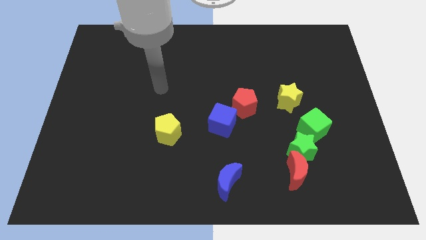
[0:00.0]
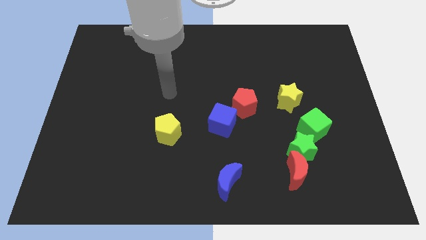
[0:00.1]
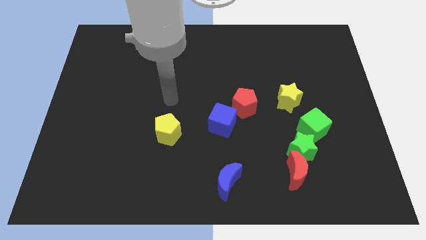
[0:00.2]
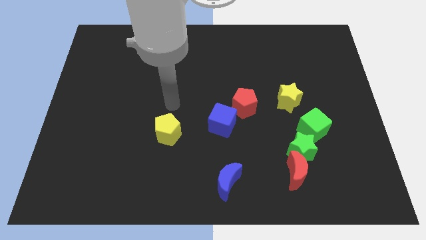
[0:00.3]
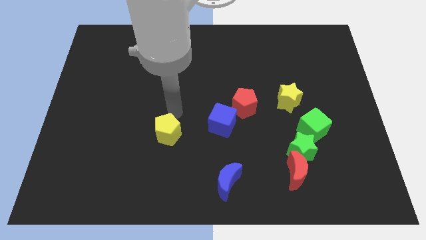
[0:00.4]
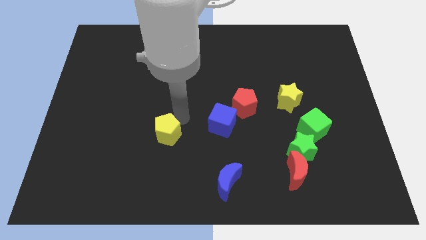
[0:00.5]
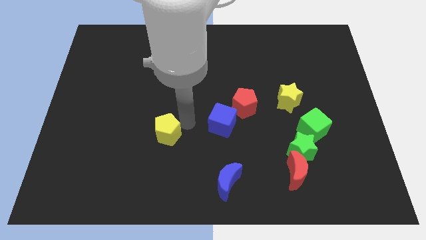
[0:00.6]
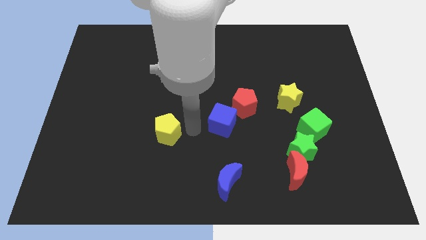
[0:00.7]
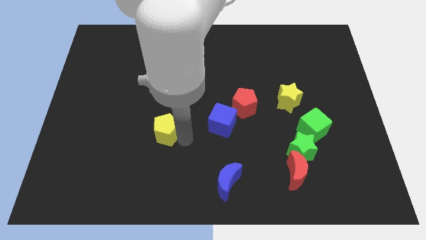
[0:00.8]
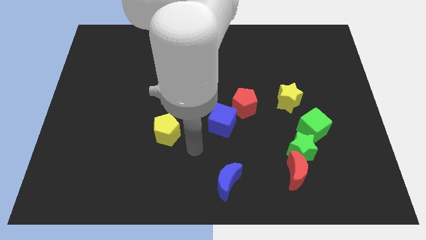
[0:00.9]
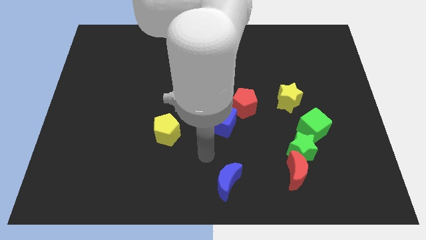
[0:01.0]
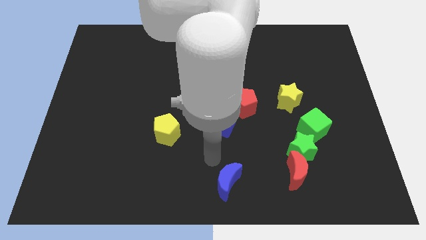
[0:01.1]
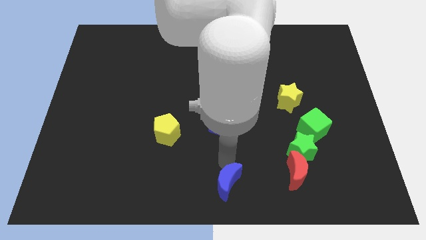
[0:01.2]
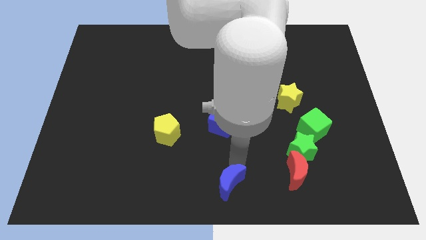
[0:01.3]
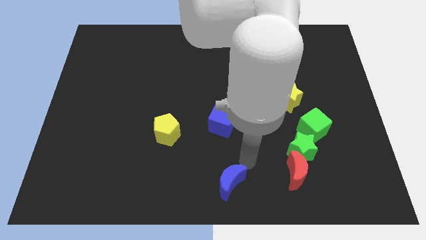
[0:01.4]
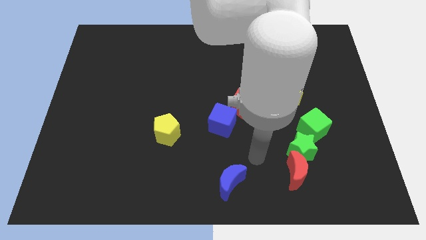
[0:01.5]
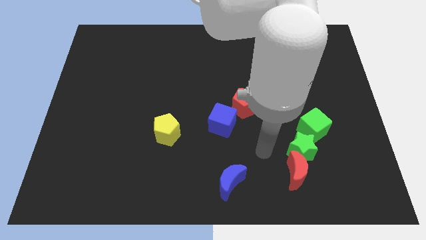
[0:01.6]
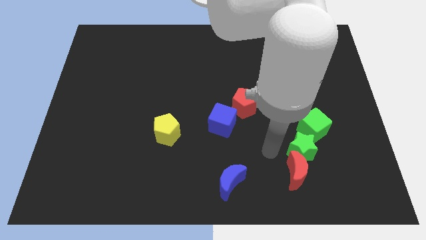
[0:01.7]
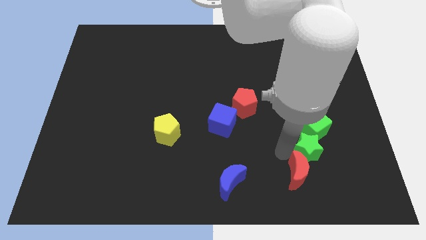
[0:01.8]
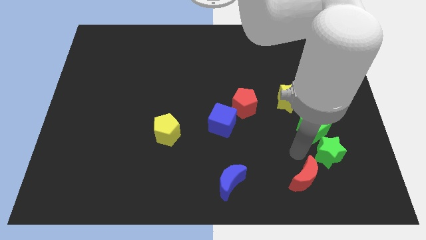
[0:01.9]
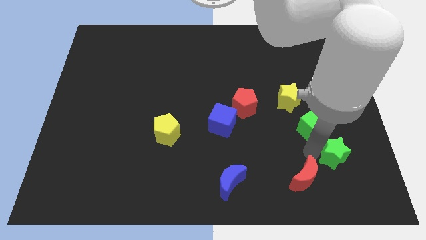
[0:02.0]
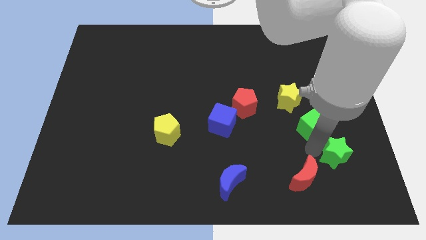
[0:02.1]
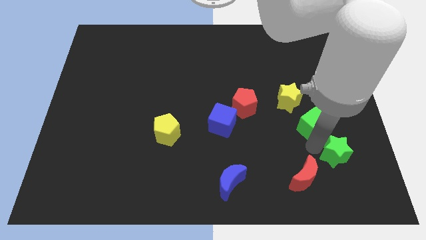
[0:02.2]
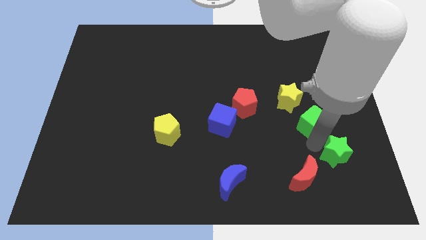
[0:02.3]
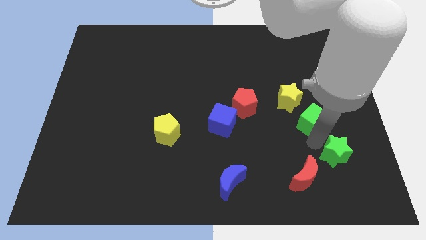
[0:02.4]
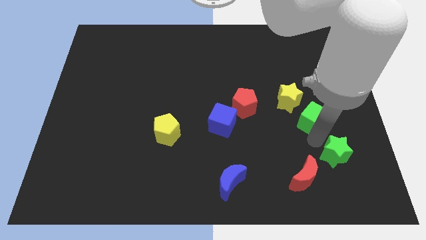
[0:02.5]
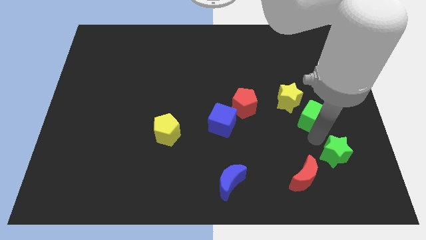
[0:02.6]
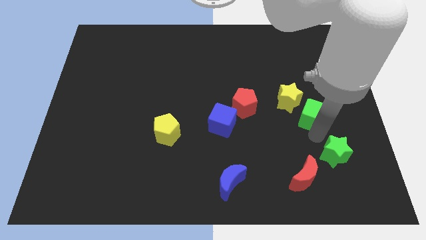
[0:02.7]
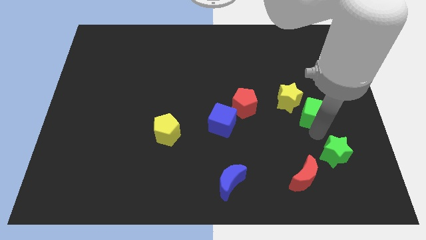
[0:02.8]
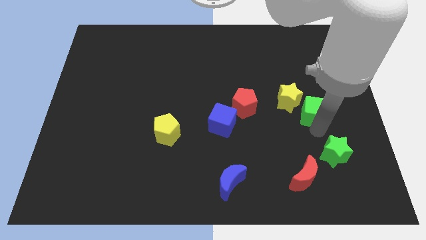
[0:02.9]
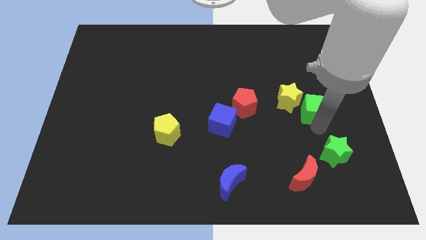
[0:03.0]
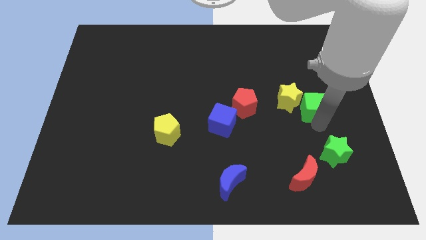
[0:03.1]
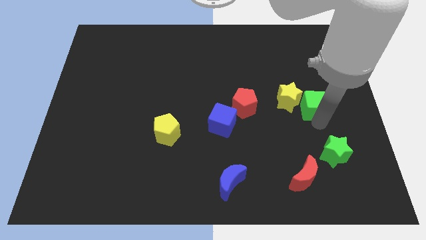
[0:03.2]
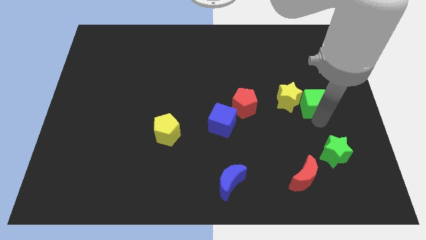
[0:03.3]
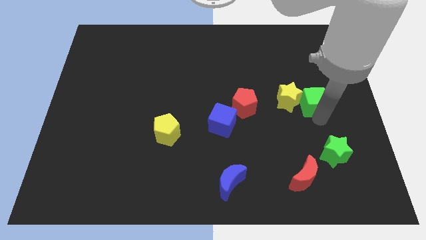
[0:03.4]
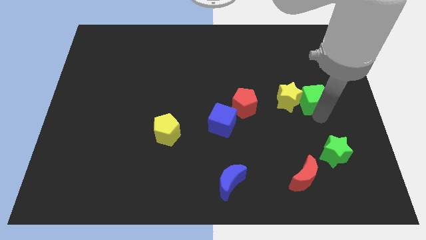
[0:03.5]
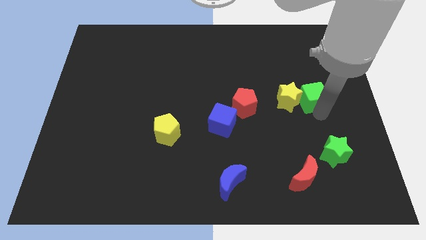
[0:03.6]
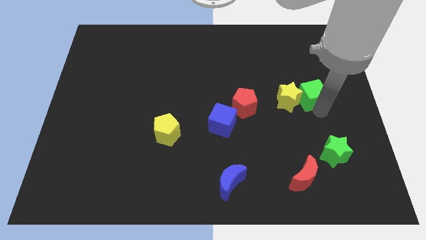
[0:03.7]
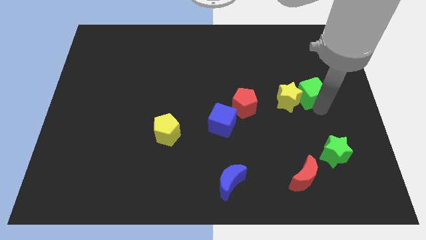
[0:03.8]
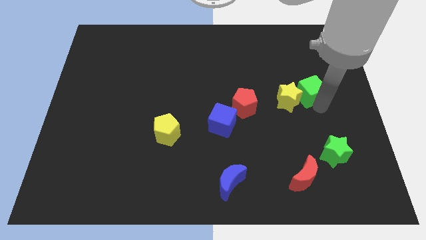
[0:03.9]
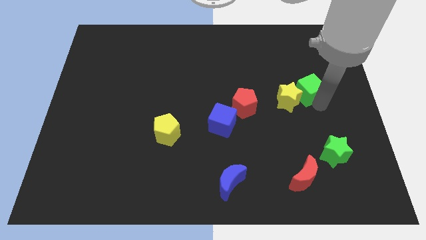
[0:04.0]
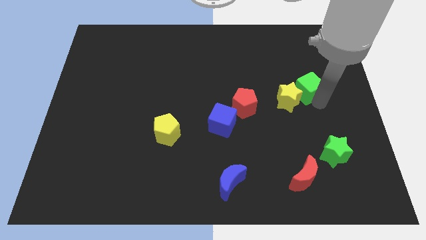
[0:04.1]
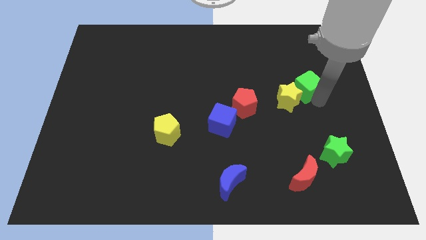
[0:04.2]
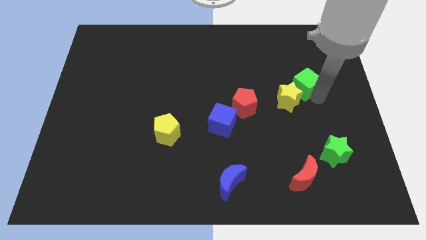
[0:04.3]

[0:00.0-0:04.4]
push the green cube to the top side of the yellow star

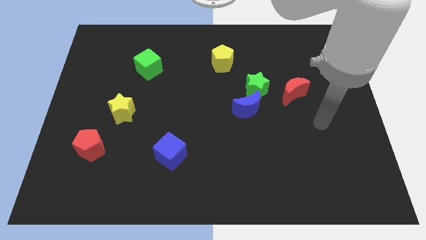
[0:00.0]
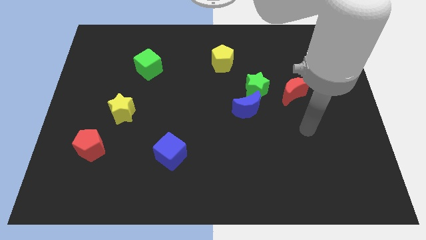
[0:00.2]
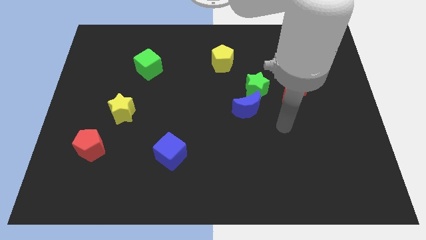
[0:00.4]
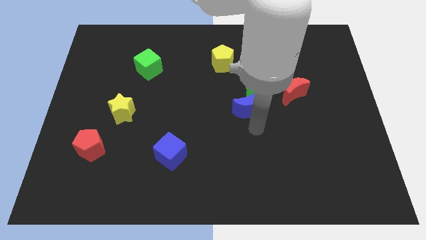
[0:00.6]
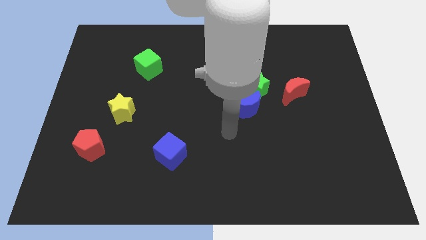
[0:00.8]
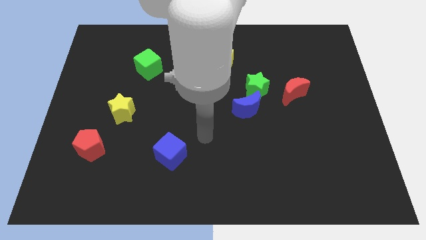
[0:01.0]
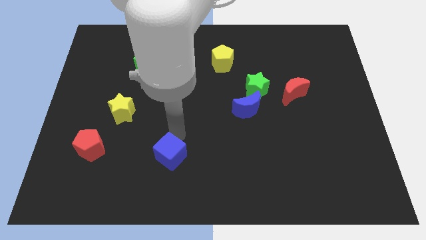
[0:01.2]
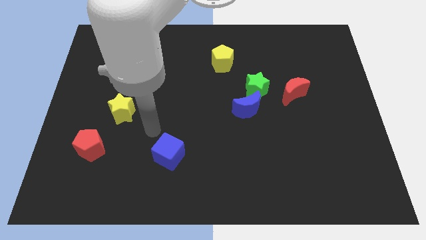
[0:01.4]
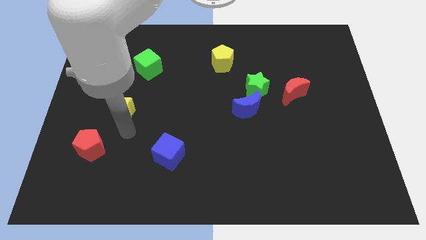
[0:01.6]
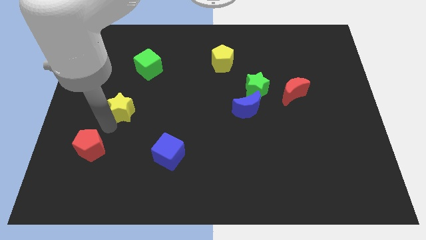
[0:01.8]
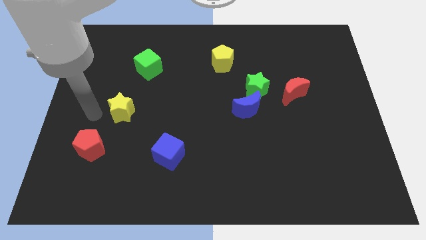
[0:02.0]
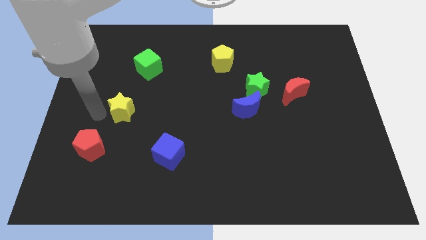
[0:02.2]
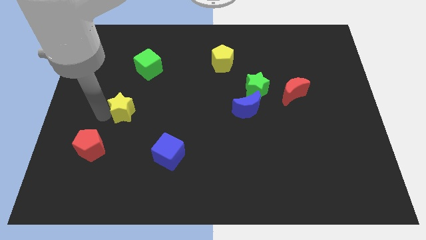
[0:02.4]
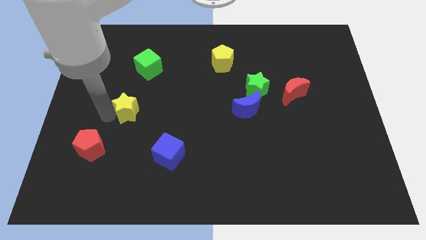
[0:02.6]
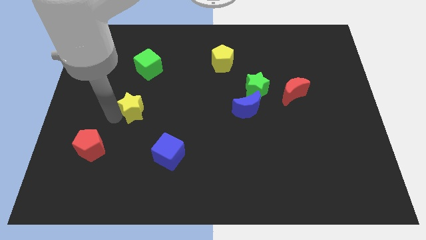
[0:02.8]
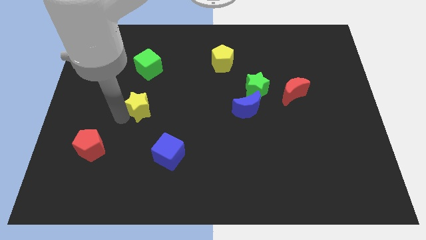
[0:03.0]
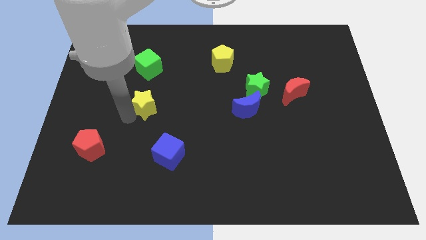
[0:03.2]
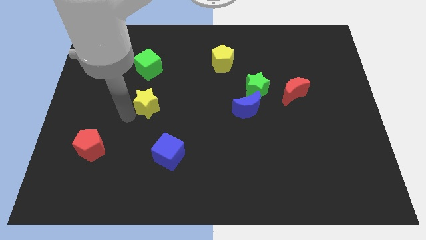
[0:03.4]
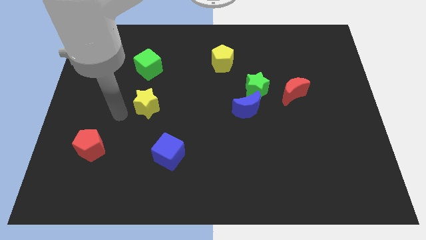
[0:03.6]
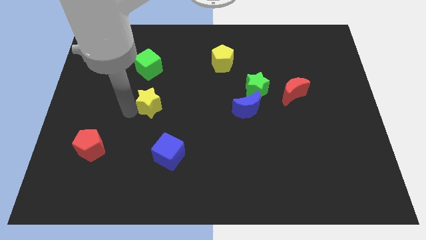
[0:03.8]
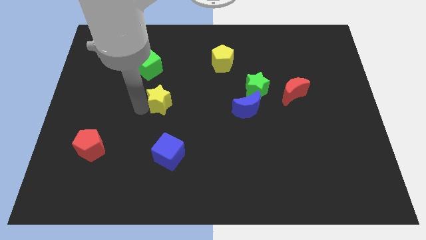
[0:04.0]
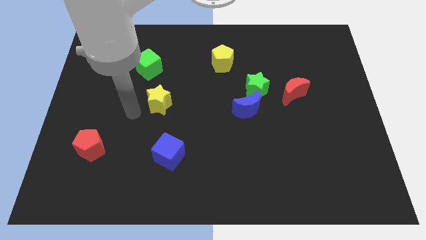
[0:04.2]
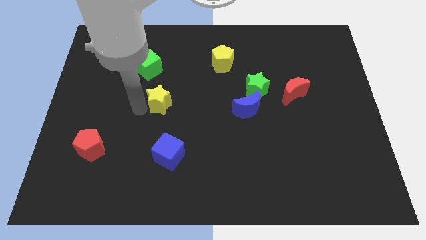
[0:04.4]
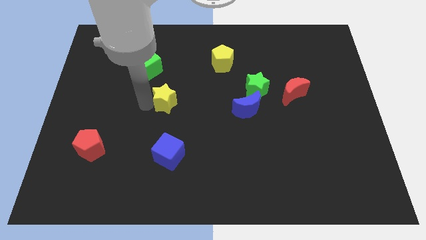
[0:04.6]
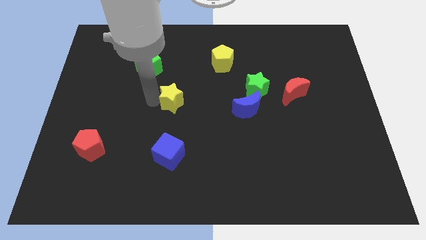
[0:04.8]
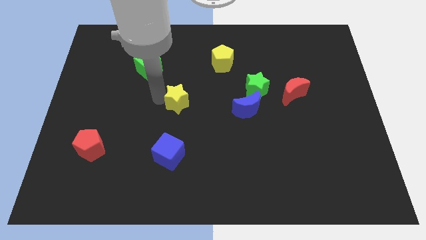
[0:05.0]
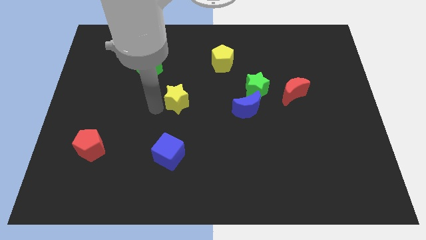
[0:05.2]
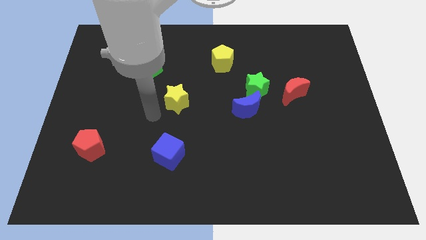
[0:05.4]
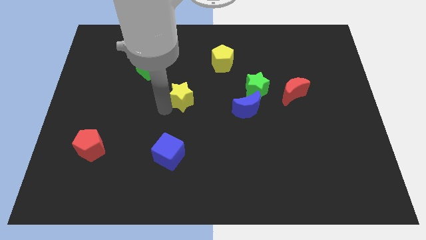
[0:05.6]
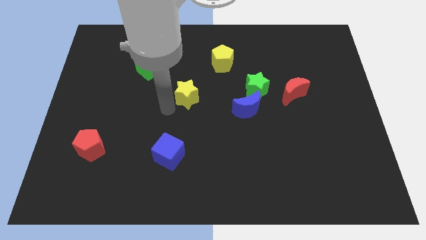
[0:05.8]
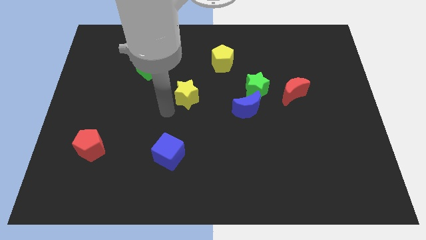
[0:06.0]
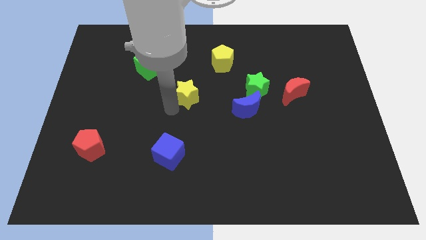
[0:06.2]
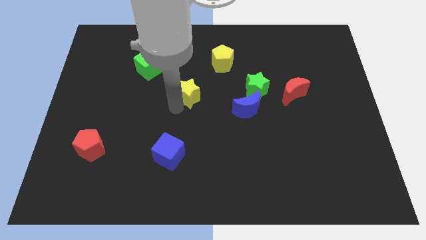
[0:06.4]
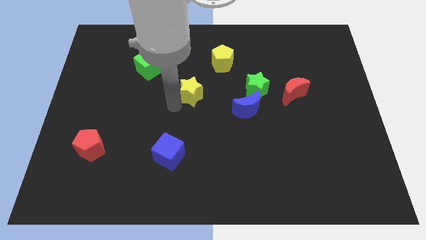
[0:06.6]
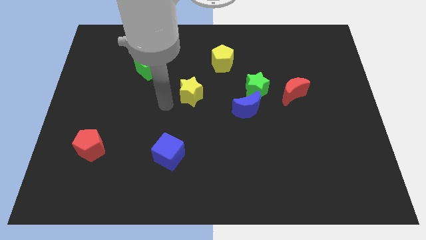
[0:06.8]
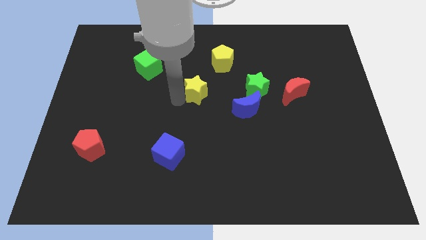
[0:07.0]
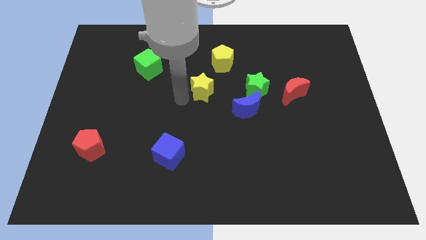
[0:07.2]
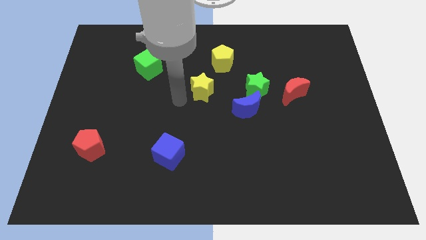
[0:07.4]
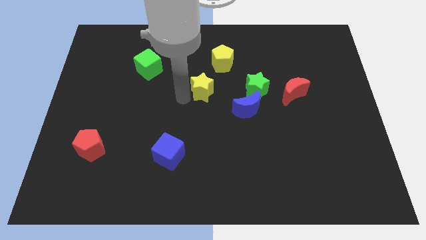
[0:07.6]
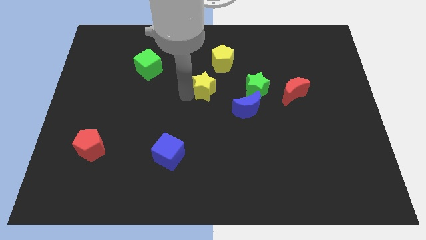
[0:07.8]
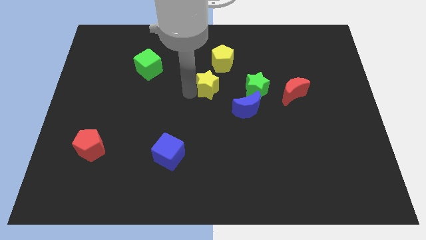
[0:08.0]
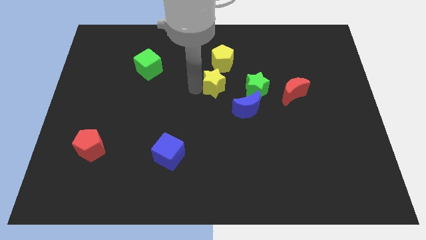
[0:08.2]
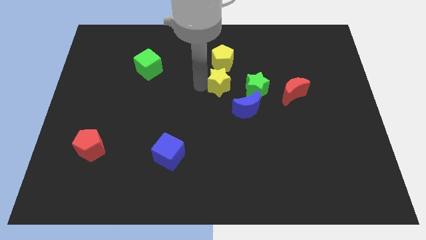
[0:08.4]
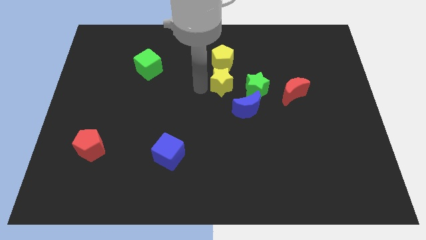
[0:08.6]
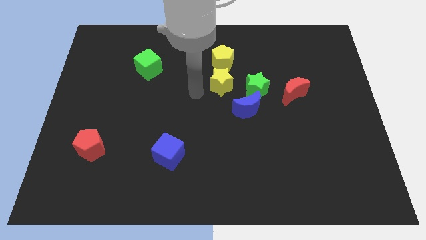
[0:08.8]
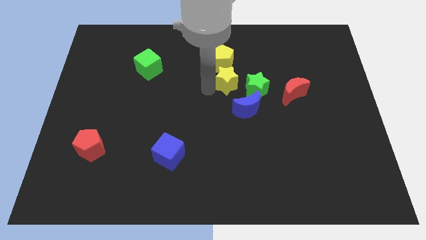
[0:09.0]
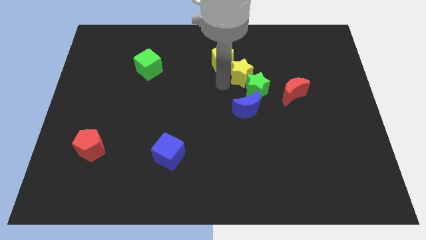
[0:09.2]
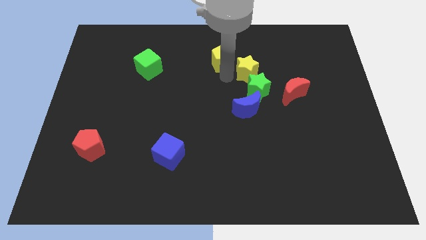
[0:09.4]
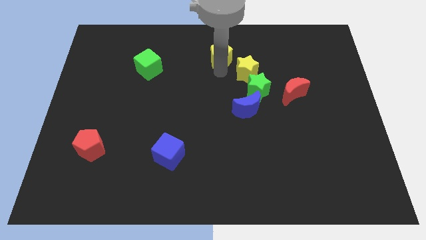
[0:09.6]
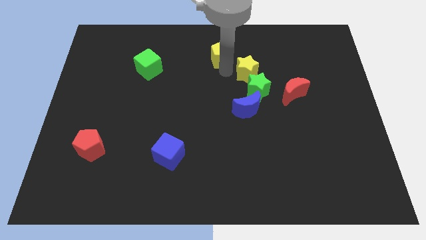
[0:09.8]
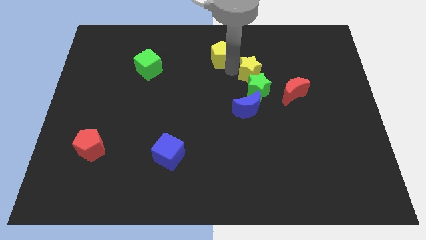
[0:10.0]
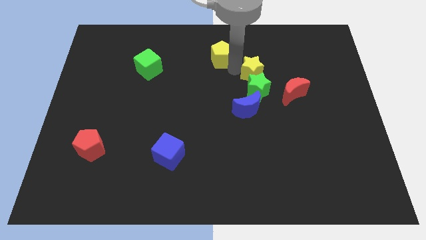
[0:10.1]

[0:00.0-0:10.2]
push the yellow star diagonally up and to the right of the green star
